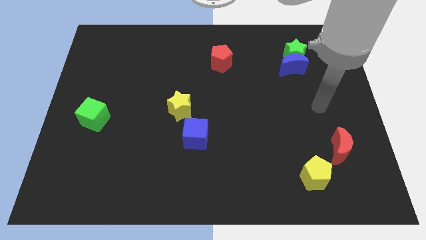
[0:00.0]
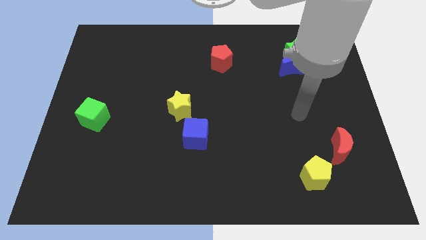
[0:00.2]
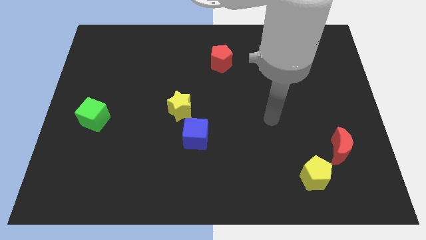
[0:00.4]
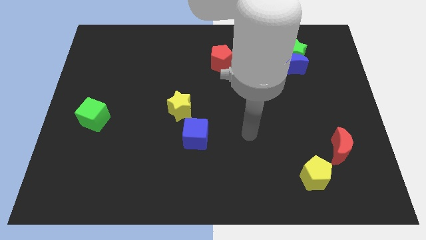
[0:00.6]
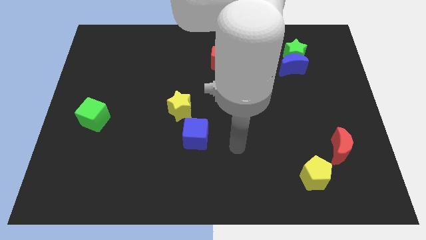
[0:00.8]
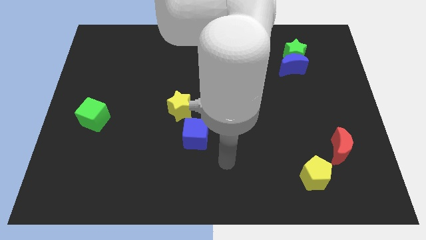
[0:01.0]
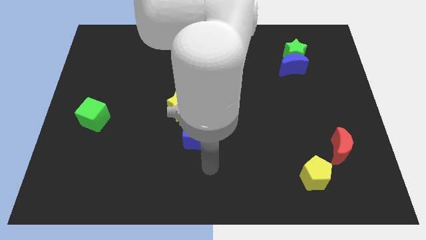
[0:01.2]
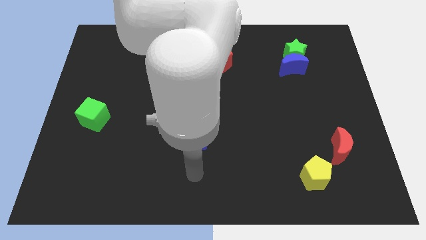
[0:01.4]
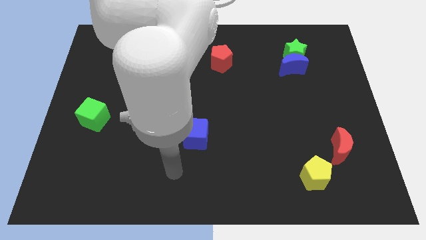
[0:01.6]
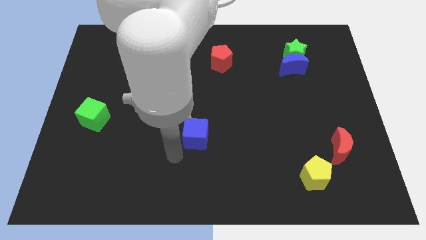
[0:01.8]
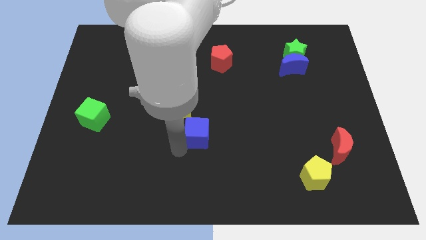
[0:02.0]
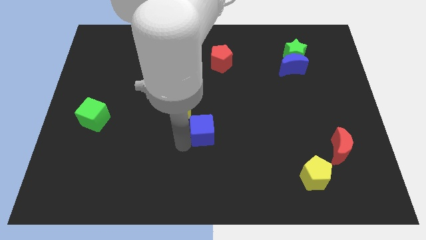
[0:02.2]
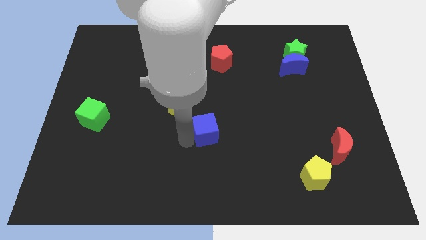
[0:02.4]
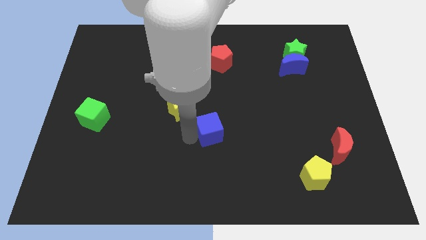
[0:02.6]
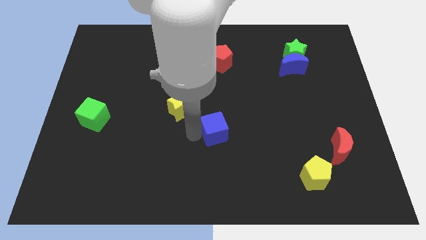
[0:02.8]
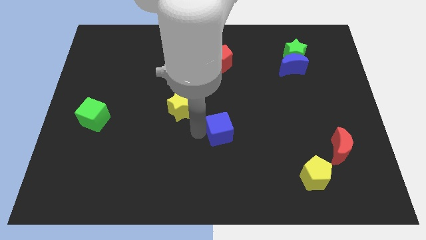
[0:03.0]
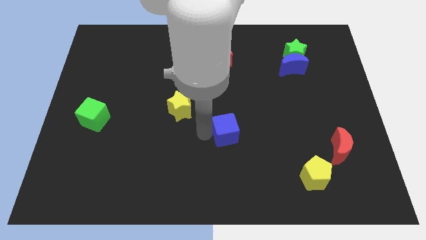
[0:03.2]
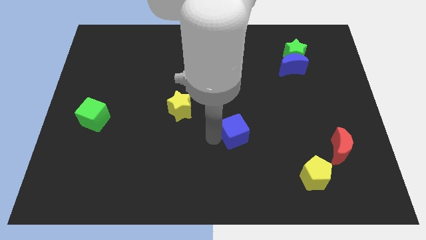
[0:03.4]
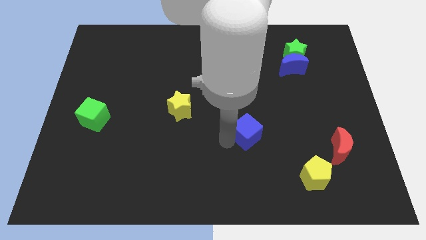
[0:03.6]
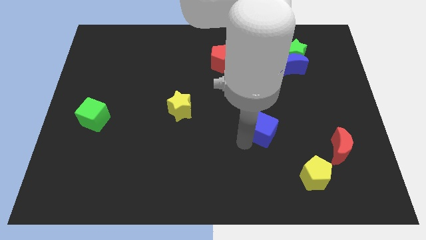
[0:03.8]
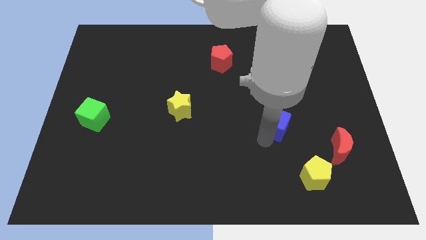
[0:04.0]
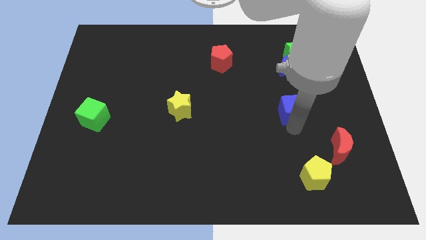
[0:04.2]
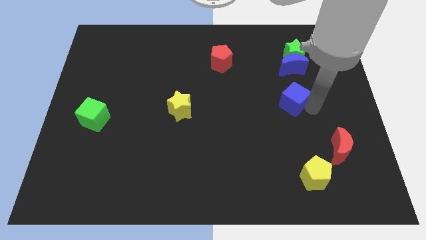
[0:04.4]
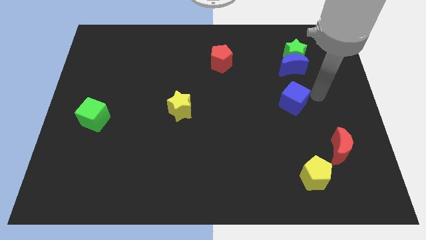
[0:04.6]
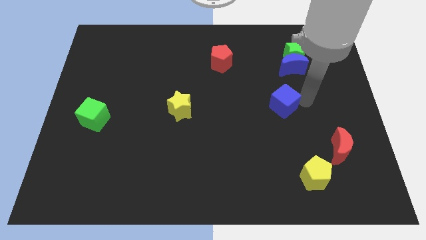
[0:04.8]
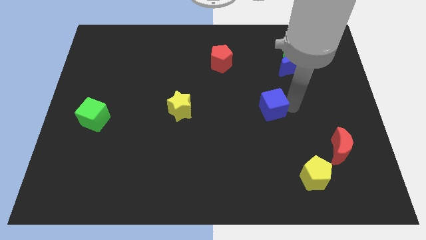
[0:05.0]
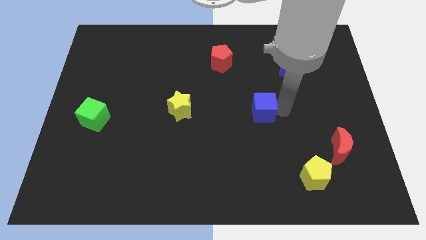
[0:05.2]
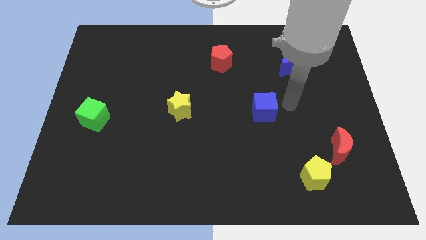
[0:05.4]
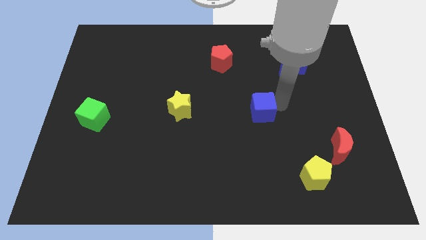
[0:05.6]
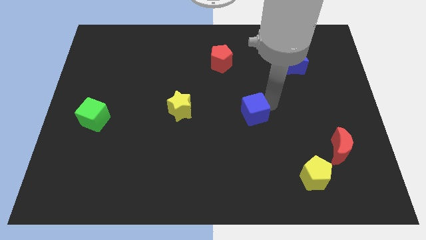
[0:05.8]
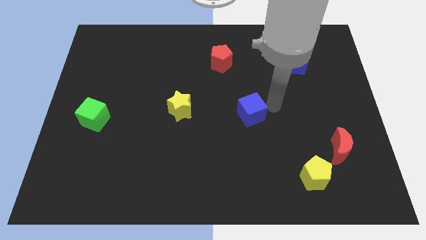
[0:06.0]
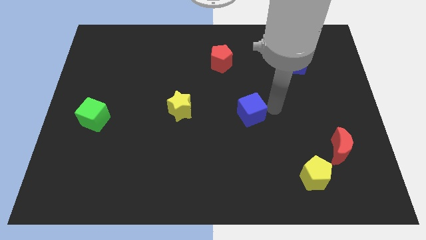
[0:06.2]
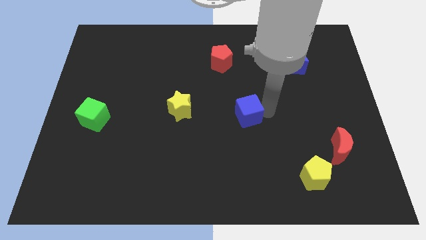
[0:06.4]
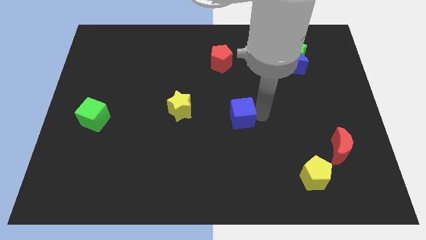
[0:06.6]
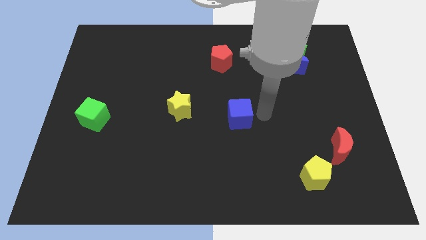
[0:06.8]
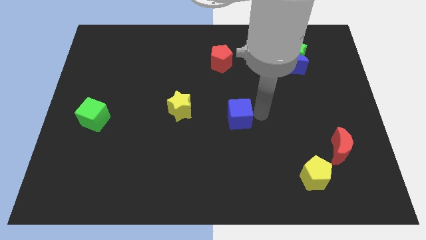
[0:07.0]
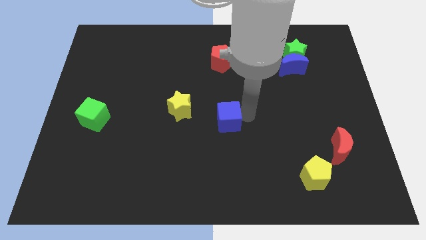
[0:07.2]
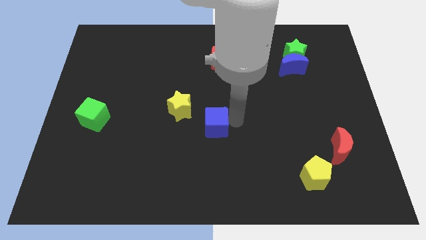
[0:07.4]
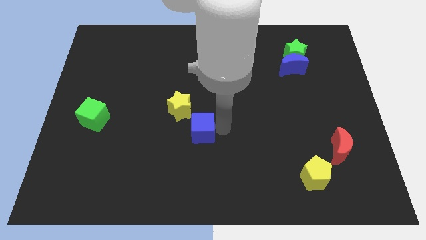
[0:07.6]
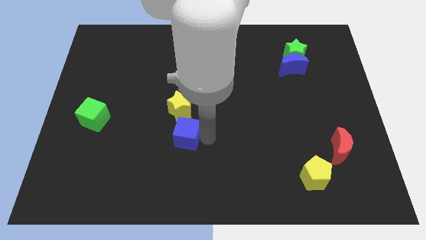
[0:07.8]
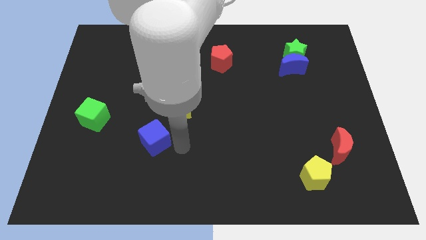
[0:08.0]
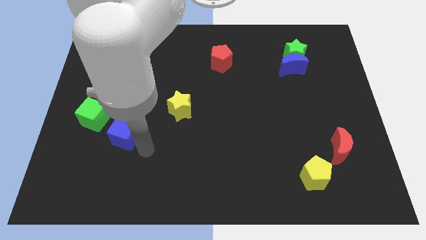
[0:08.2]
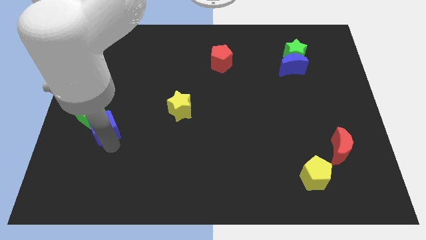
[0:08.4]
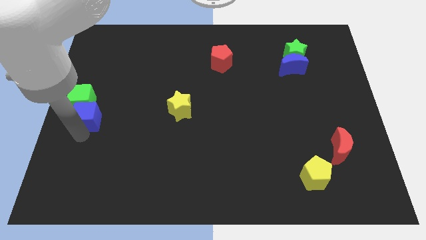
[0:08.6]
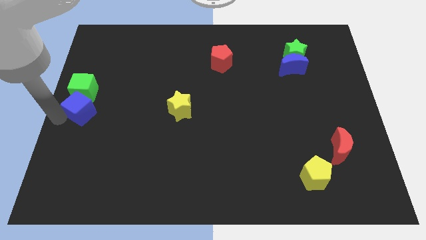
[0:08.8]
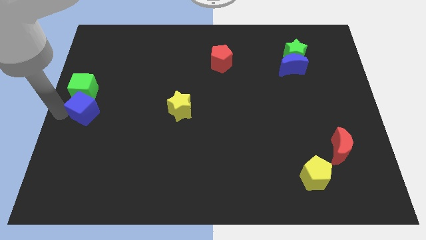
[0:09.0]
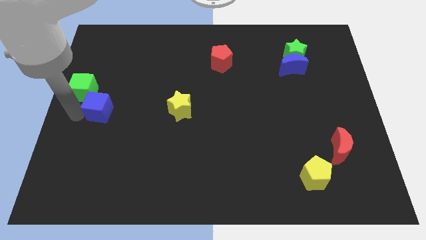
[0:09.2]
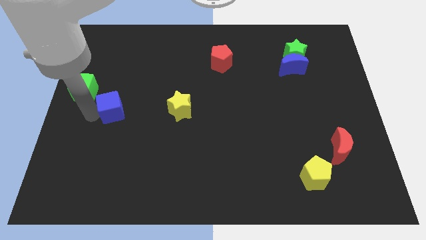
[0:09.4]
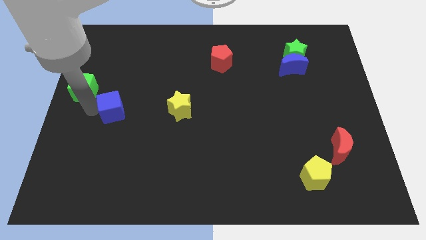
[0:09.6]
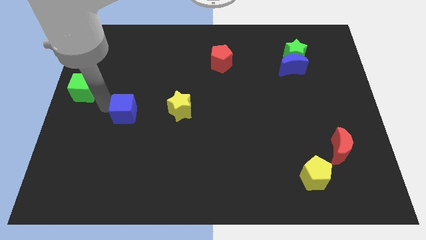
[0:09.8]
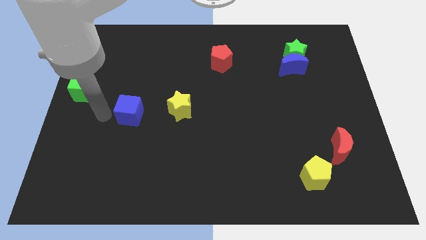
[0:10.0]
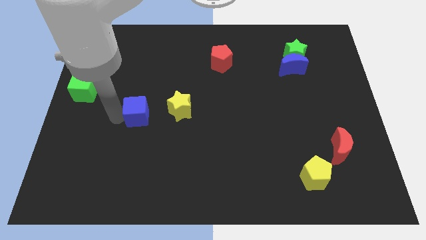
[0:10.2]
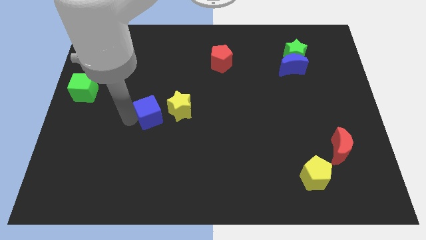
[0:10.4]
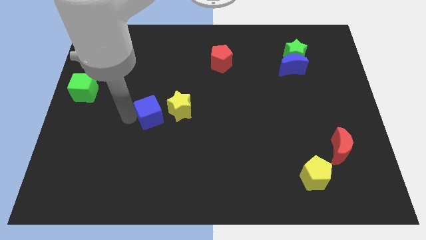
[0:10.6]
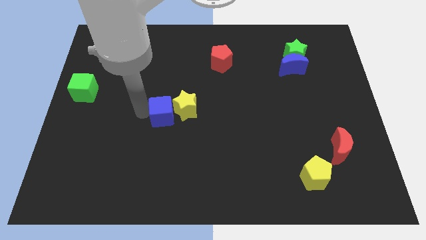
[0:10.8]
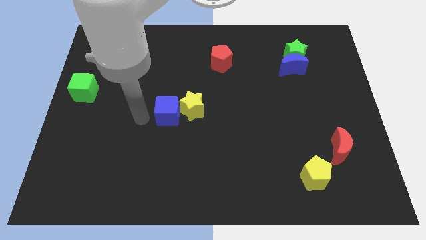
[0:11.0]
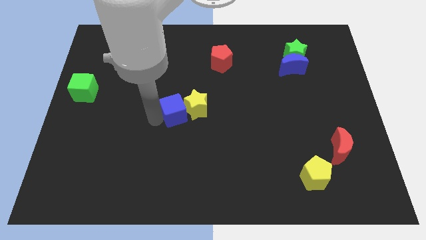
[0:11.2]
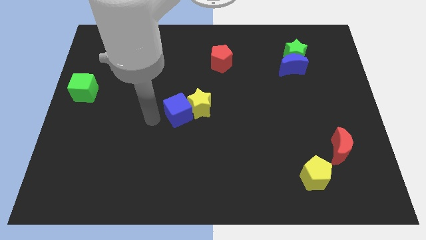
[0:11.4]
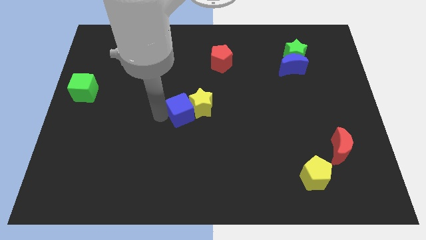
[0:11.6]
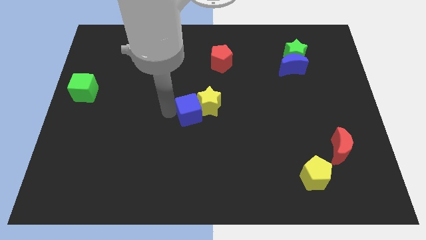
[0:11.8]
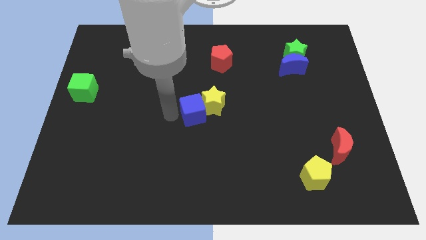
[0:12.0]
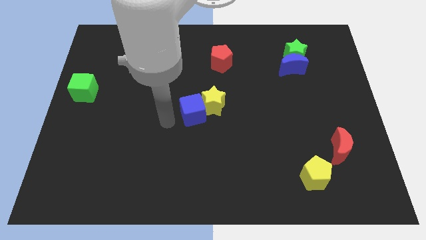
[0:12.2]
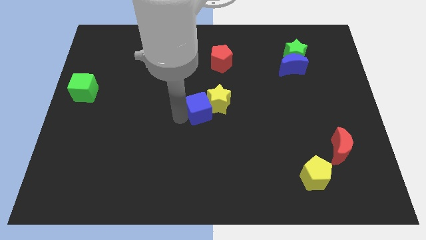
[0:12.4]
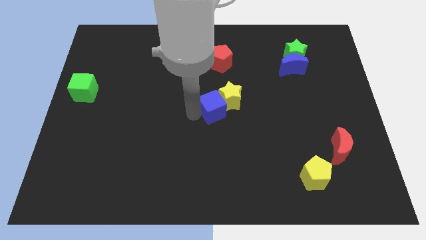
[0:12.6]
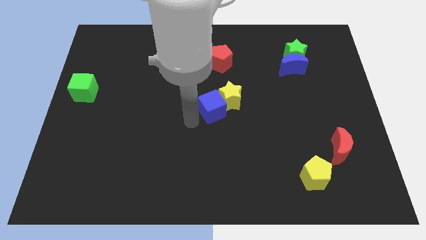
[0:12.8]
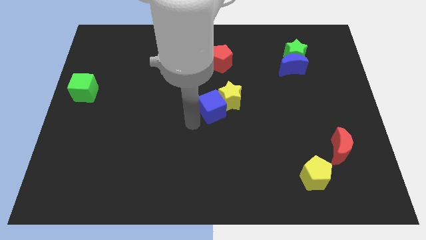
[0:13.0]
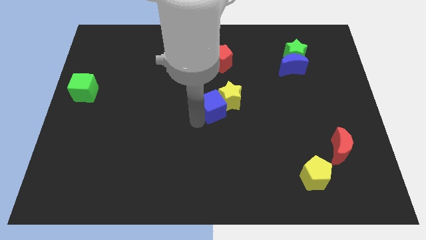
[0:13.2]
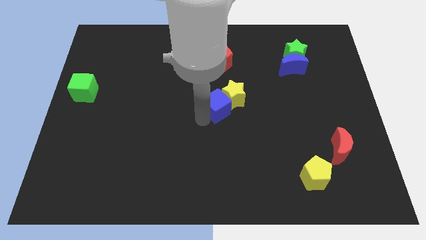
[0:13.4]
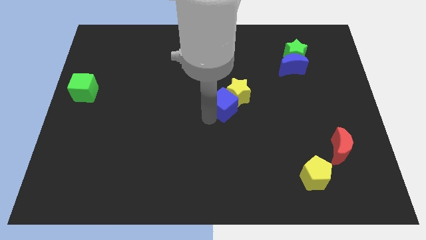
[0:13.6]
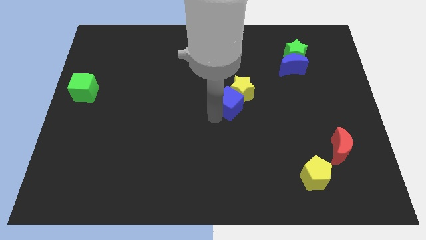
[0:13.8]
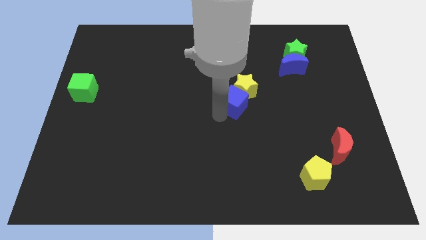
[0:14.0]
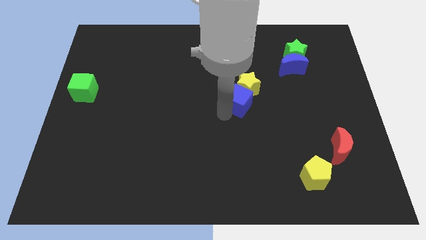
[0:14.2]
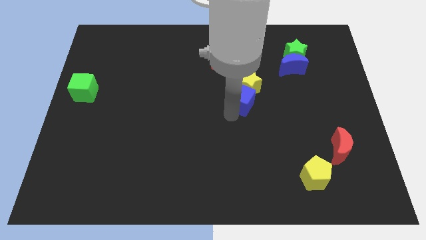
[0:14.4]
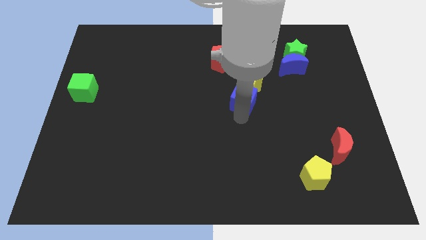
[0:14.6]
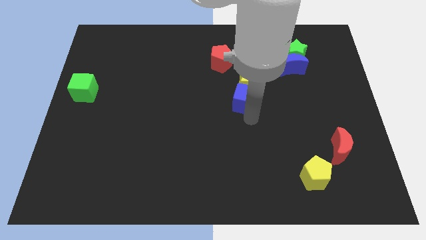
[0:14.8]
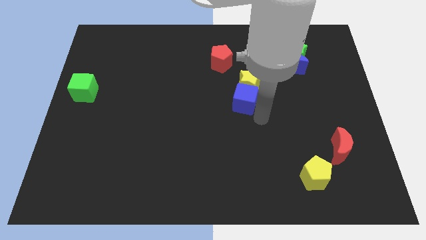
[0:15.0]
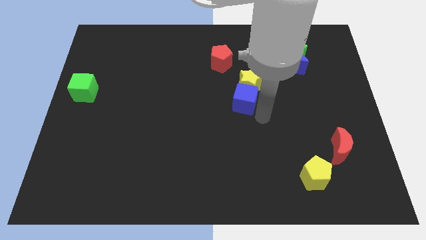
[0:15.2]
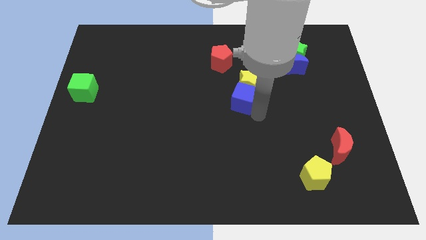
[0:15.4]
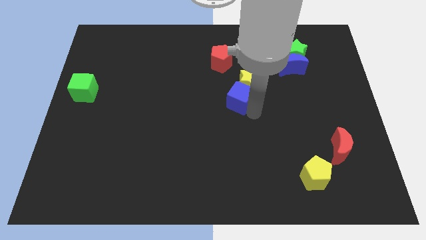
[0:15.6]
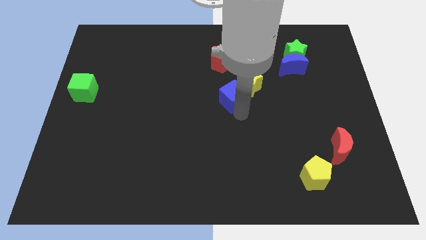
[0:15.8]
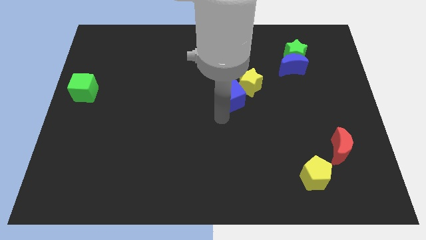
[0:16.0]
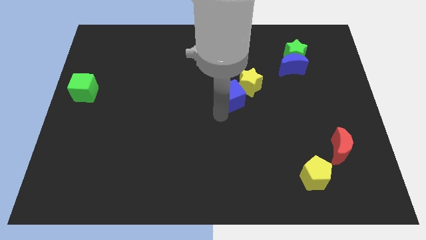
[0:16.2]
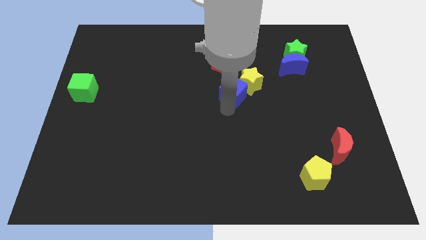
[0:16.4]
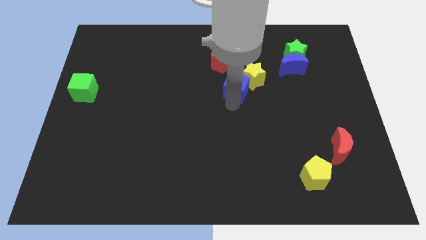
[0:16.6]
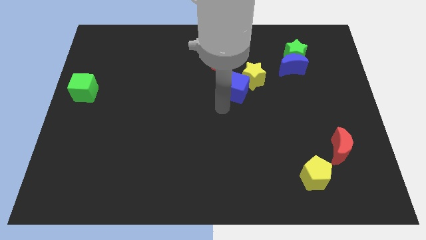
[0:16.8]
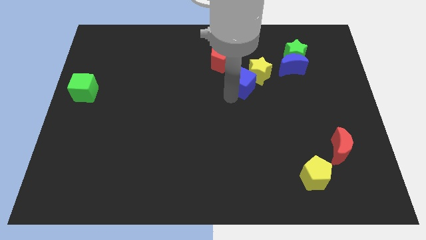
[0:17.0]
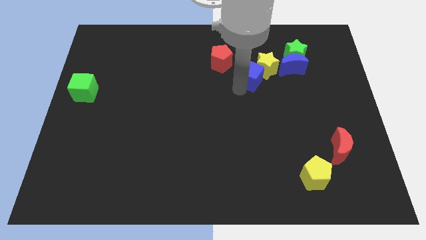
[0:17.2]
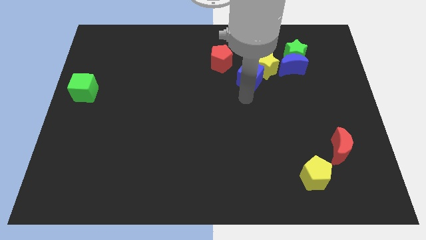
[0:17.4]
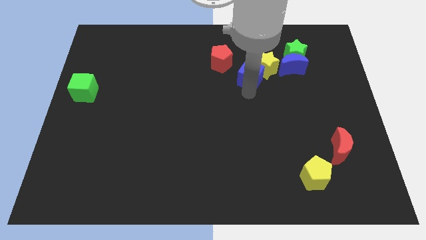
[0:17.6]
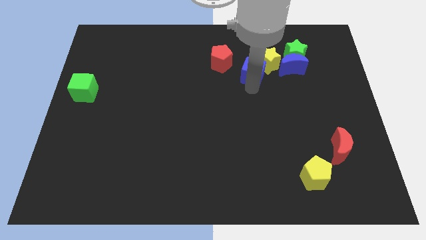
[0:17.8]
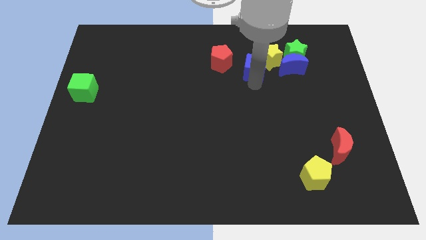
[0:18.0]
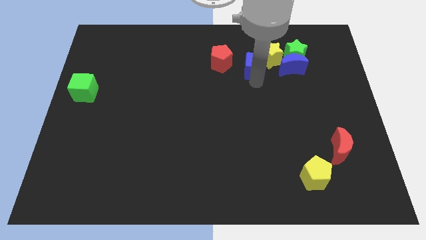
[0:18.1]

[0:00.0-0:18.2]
slide the blue cube to the left of the green star
